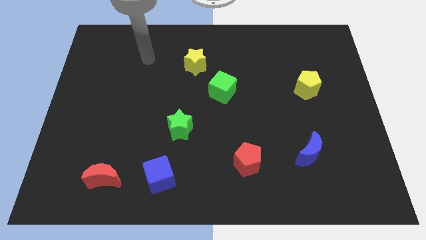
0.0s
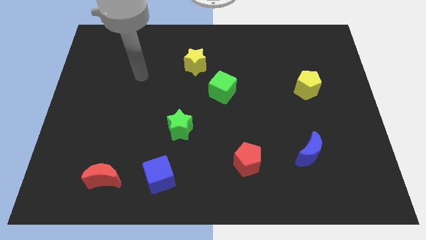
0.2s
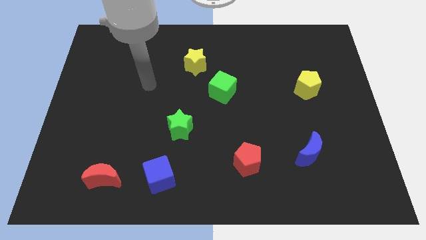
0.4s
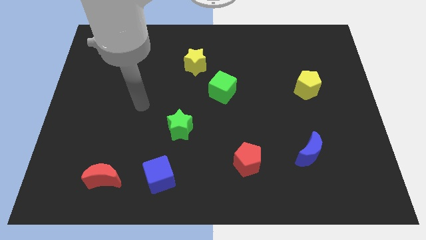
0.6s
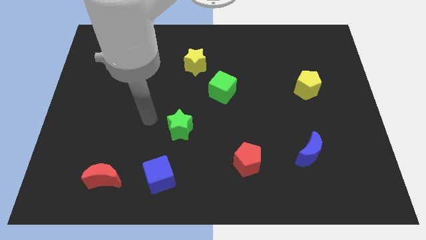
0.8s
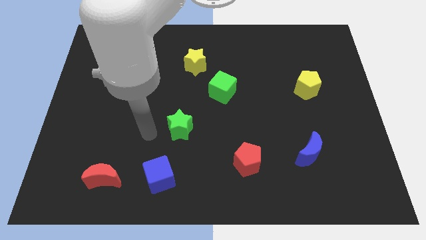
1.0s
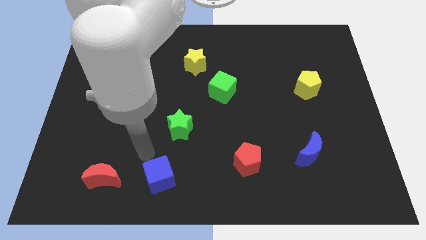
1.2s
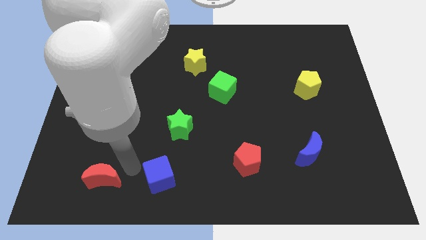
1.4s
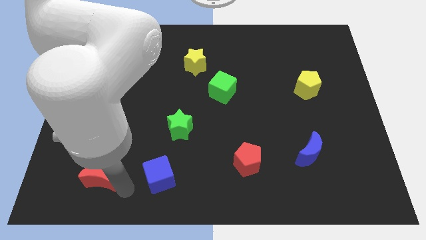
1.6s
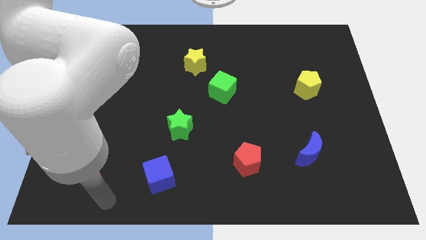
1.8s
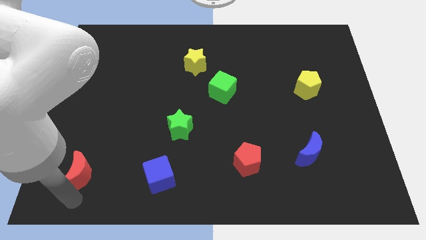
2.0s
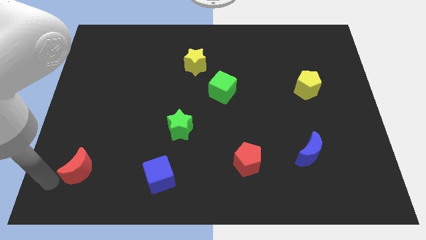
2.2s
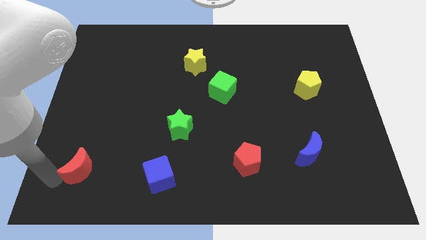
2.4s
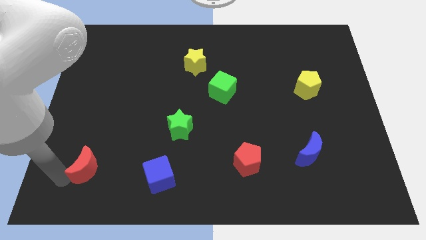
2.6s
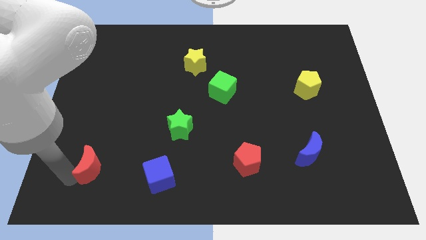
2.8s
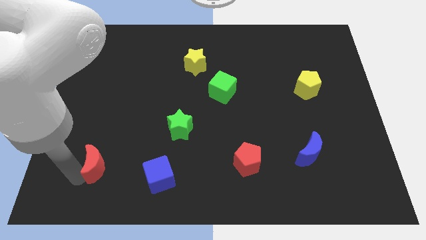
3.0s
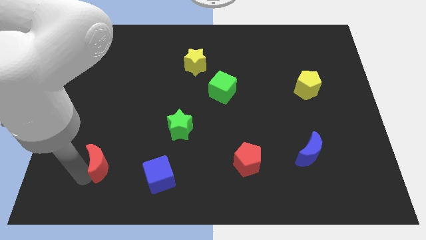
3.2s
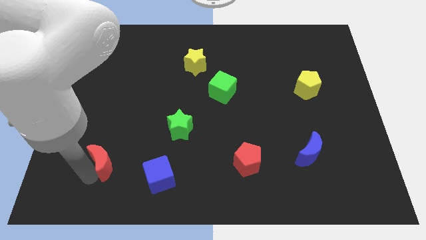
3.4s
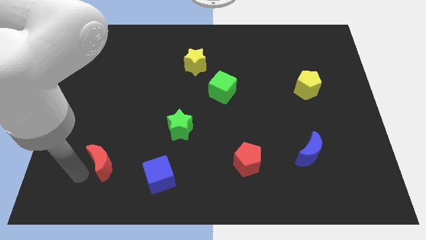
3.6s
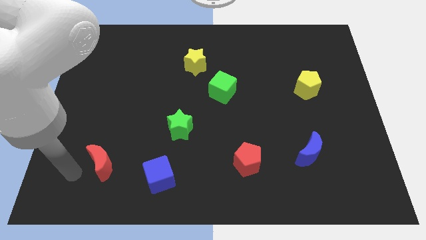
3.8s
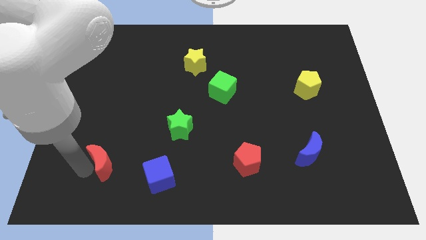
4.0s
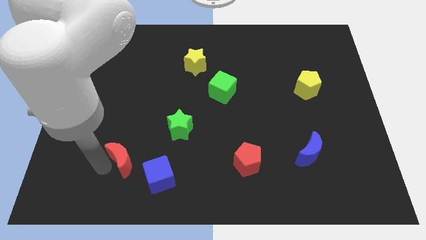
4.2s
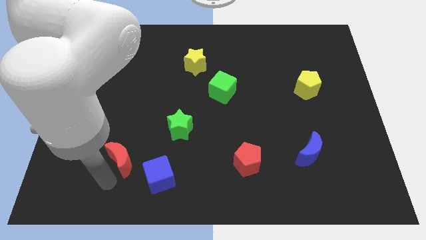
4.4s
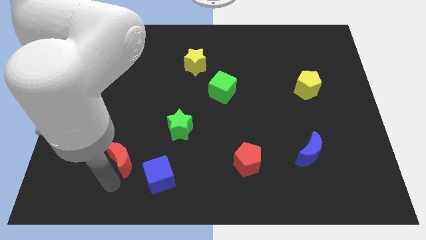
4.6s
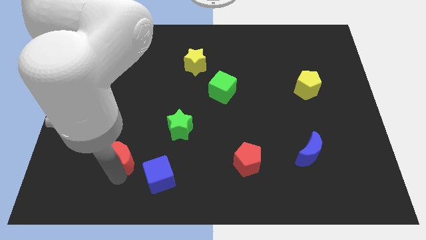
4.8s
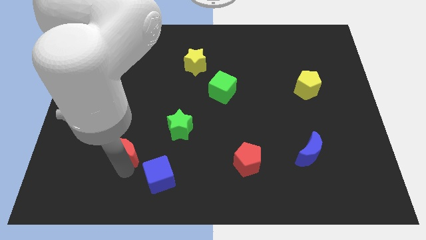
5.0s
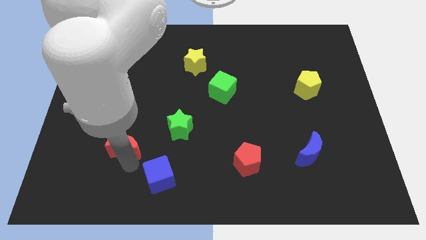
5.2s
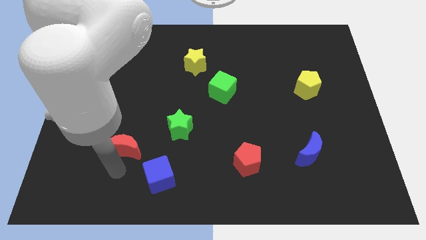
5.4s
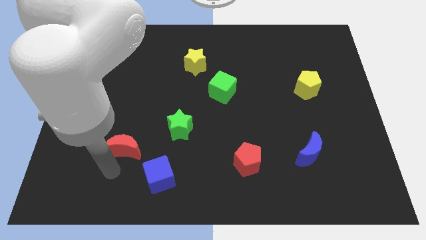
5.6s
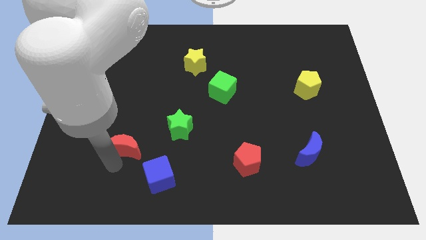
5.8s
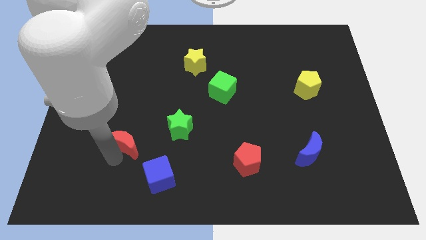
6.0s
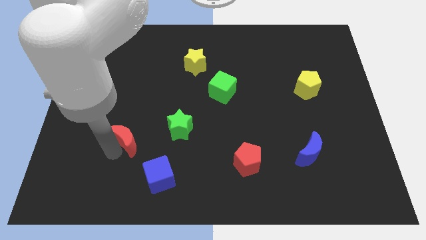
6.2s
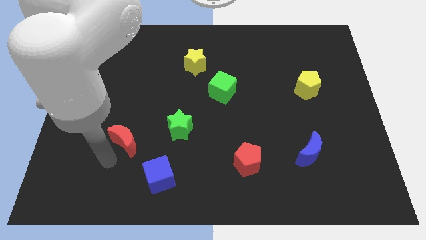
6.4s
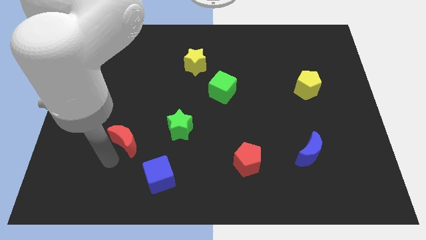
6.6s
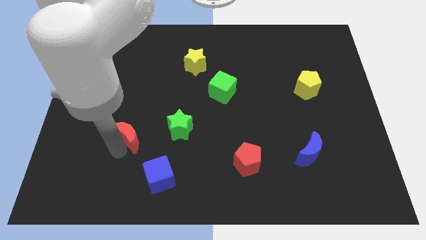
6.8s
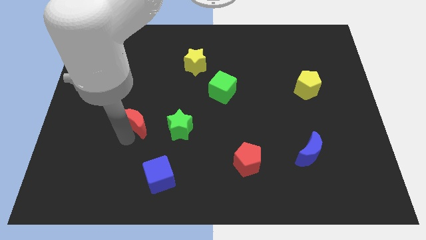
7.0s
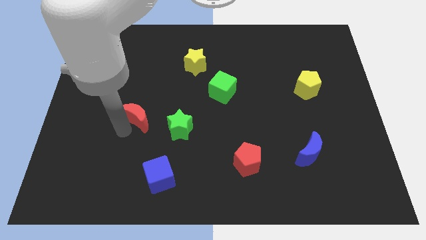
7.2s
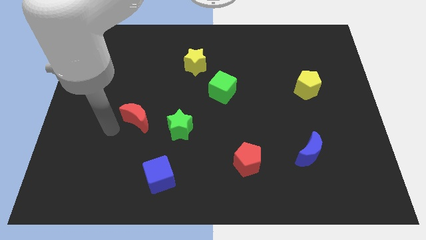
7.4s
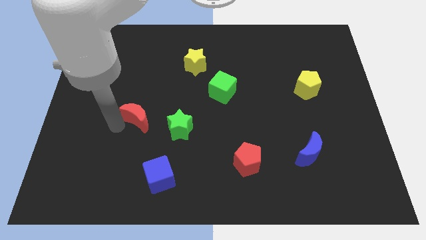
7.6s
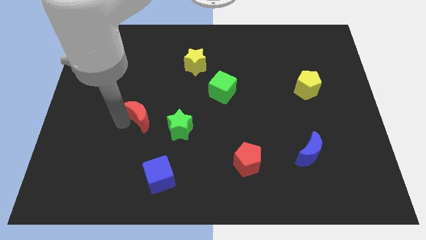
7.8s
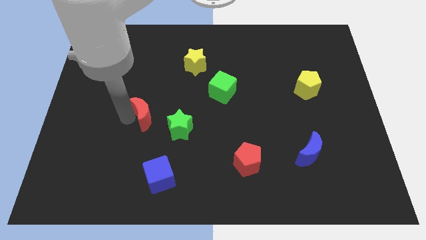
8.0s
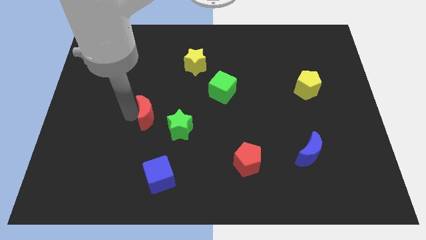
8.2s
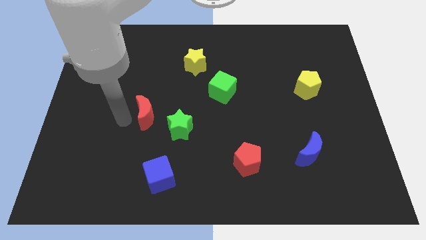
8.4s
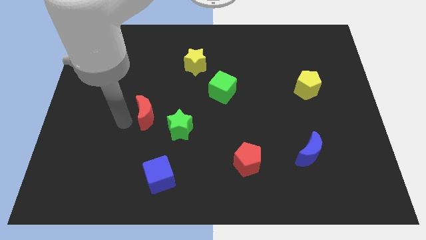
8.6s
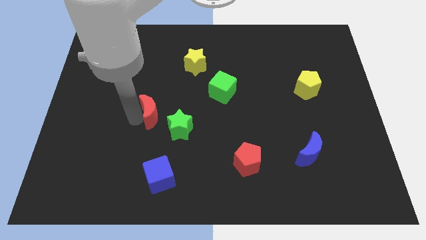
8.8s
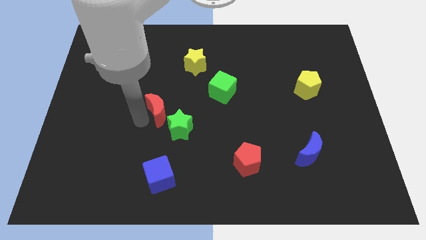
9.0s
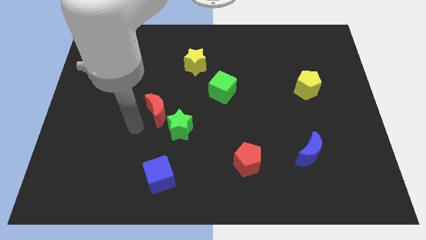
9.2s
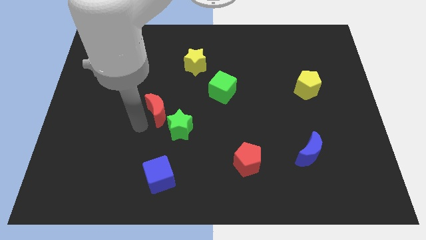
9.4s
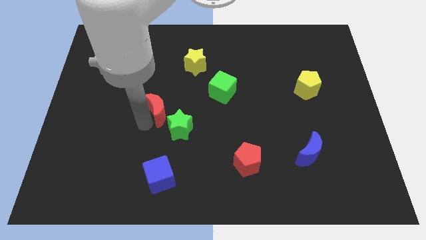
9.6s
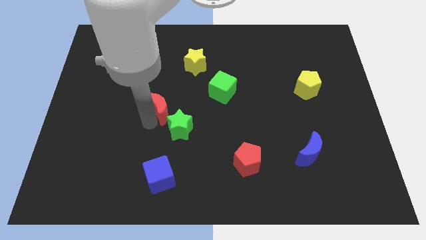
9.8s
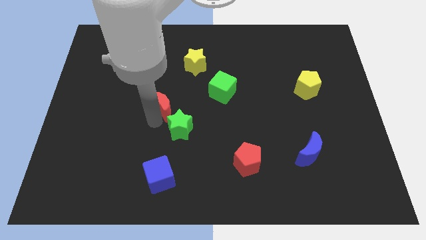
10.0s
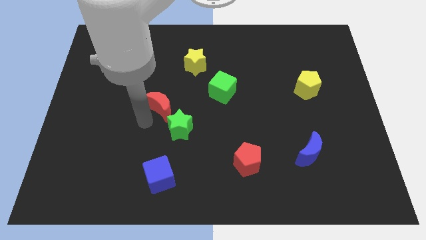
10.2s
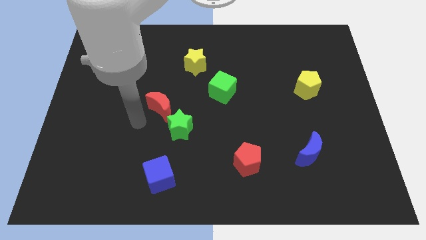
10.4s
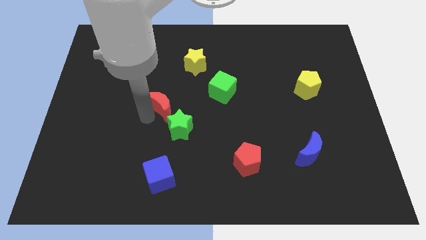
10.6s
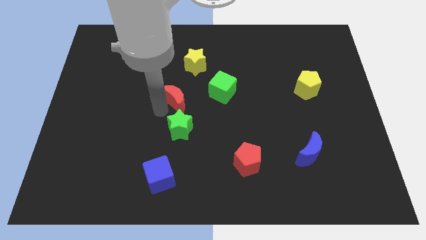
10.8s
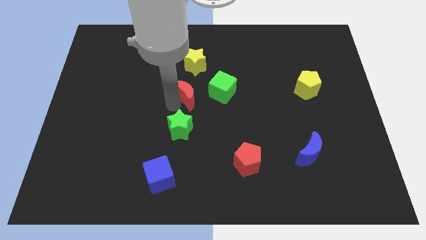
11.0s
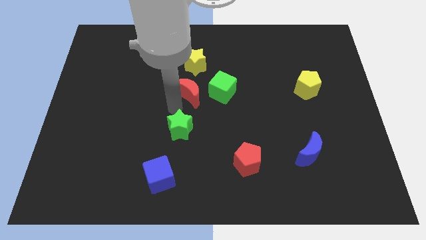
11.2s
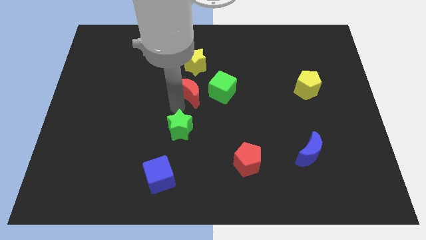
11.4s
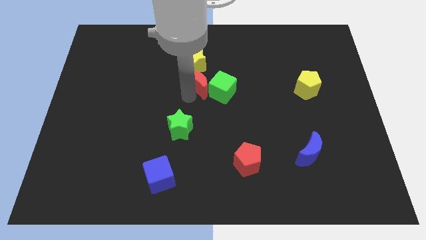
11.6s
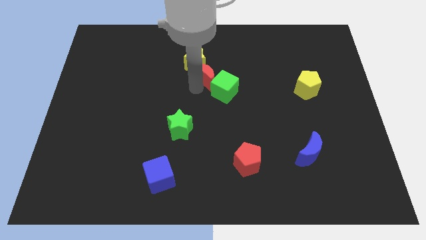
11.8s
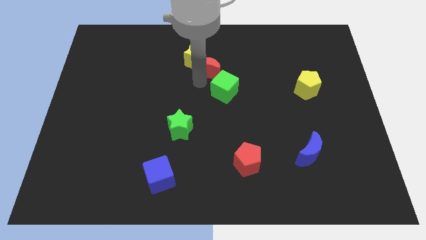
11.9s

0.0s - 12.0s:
move the red moon just right of the yellow star

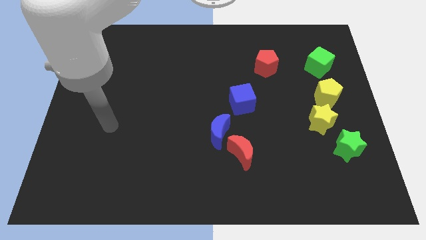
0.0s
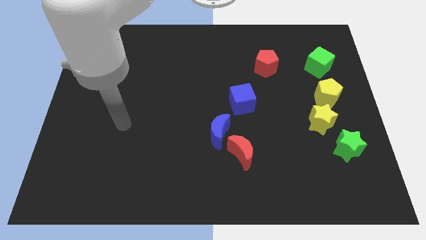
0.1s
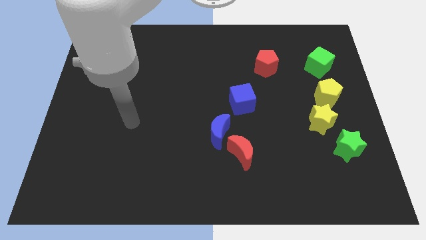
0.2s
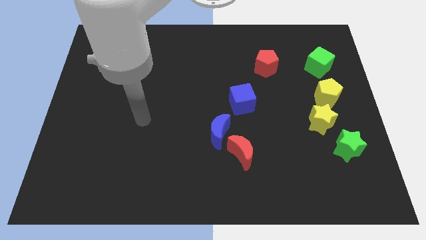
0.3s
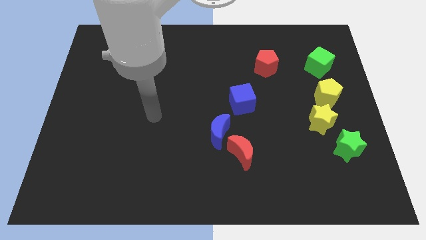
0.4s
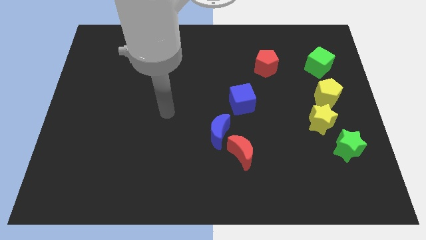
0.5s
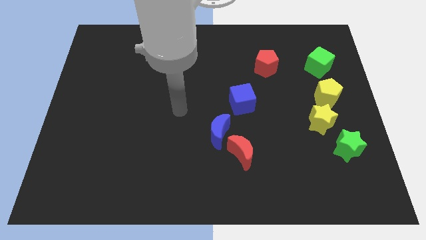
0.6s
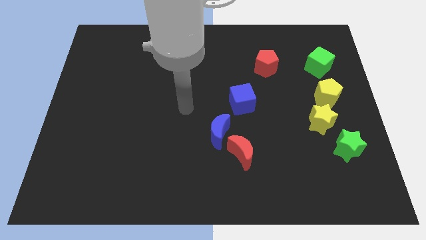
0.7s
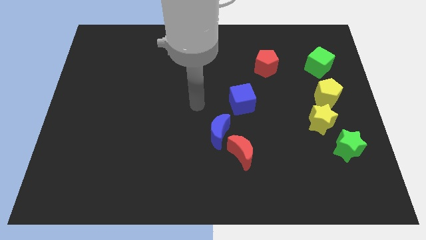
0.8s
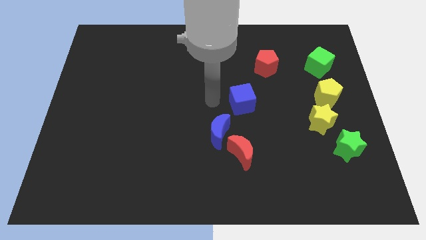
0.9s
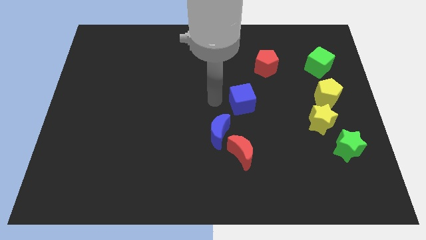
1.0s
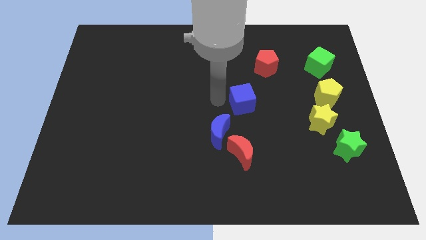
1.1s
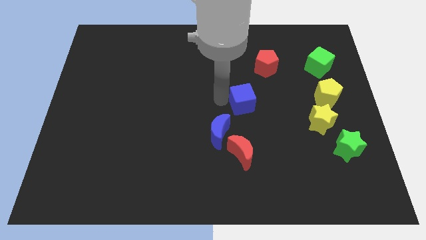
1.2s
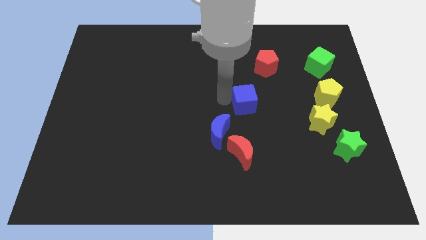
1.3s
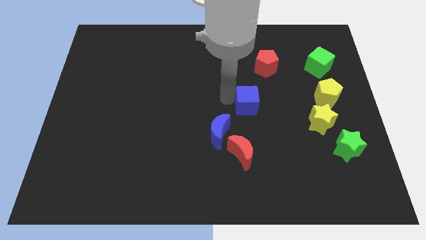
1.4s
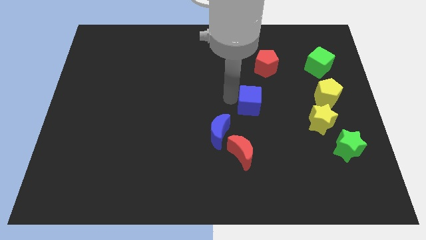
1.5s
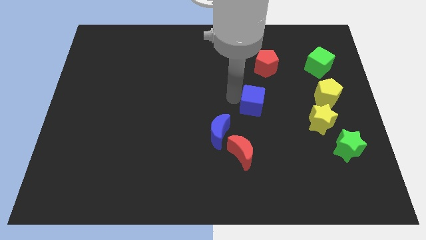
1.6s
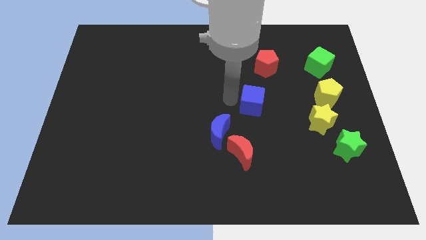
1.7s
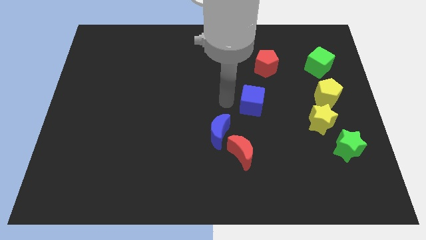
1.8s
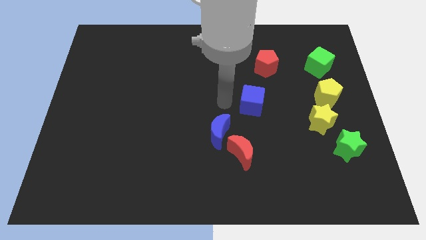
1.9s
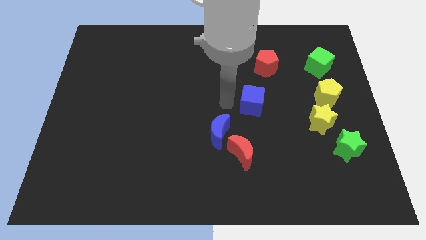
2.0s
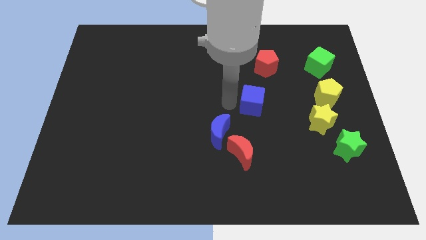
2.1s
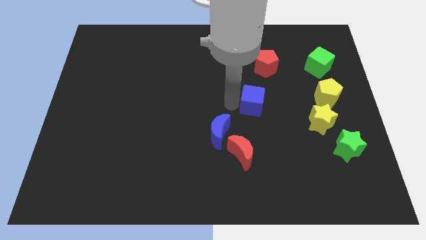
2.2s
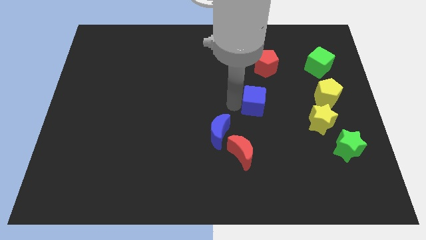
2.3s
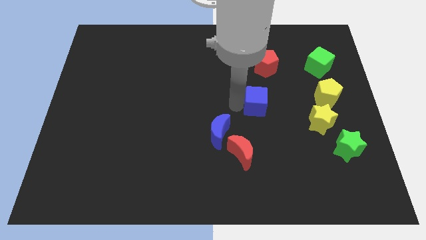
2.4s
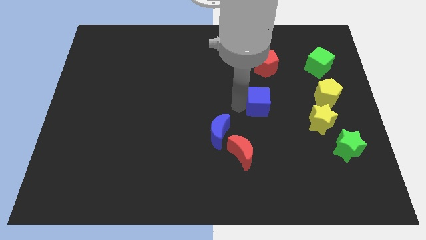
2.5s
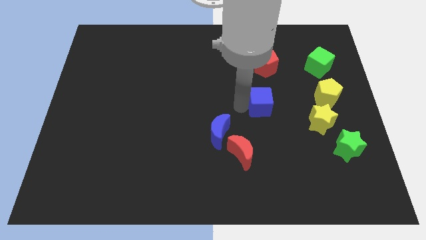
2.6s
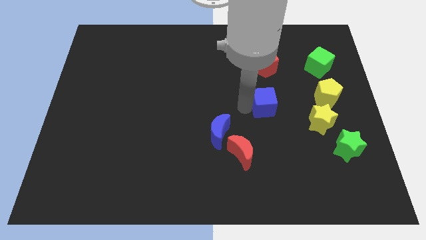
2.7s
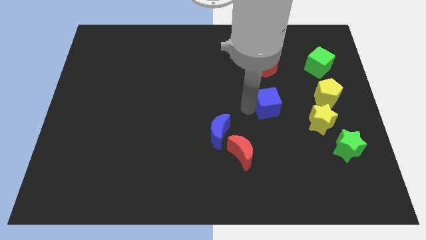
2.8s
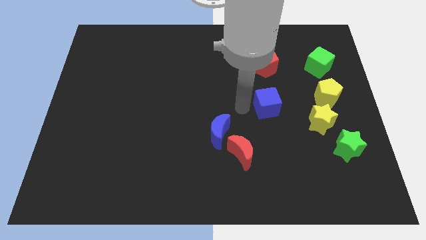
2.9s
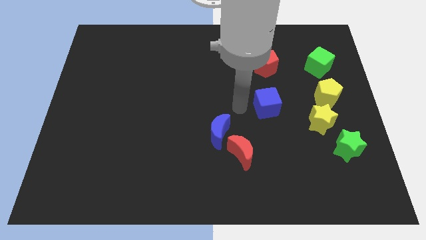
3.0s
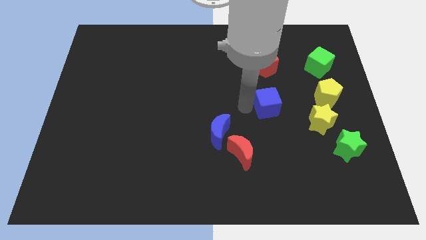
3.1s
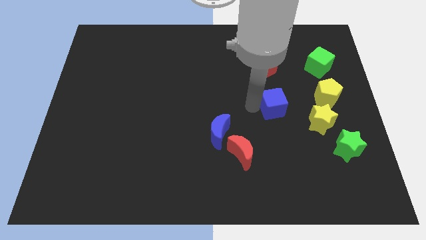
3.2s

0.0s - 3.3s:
slide the blue cube to the top left of the yellow star
